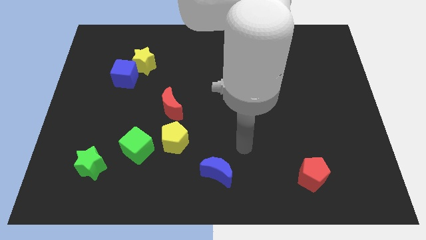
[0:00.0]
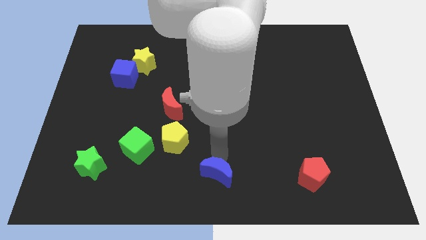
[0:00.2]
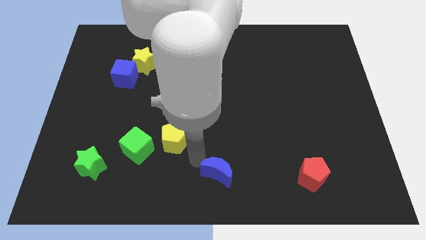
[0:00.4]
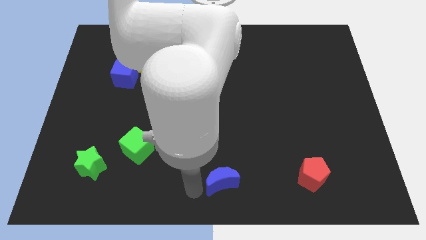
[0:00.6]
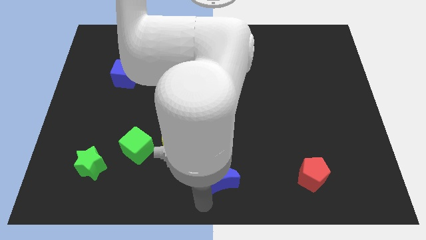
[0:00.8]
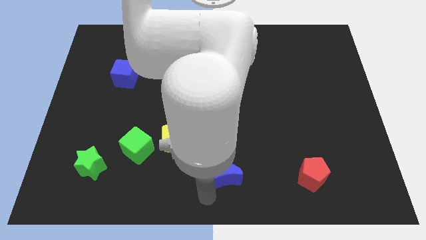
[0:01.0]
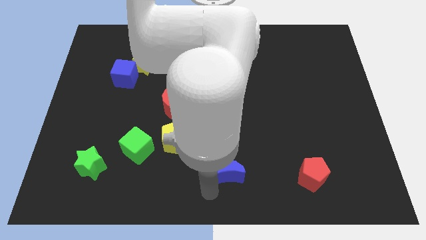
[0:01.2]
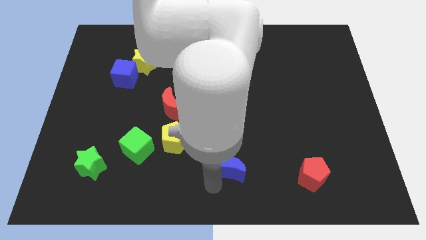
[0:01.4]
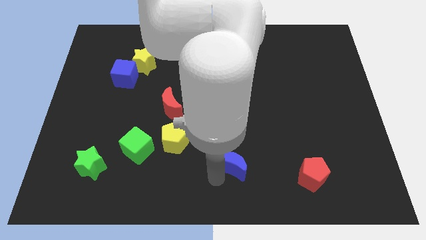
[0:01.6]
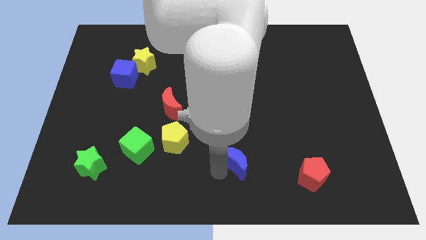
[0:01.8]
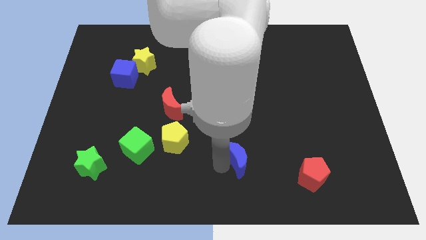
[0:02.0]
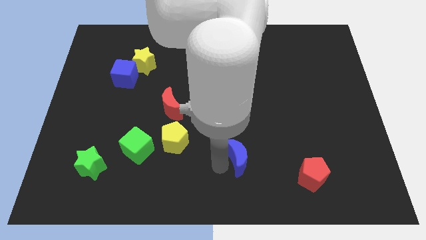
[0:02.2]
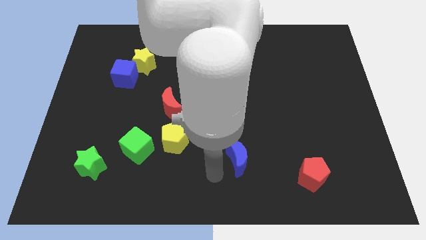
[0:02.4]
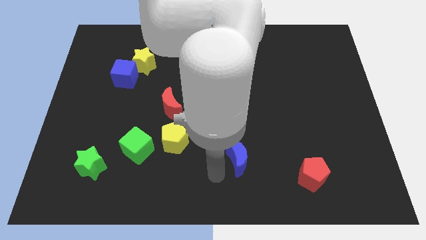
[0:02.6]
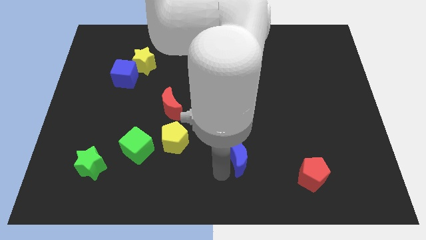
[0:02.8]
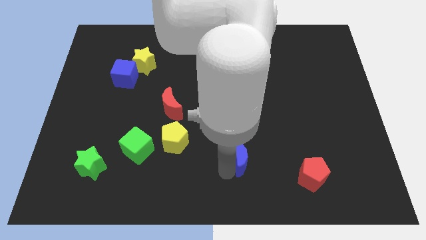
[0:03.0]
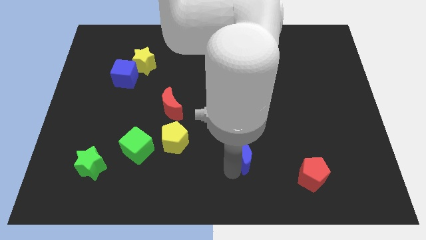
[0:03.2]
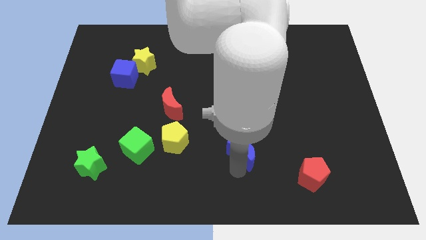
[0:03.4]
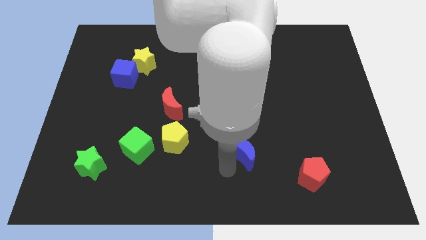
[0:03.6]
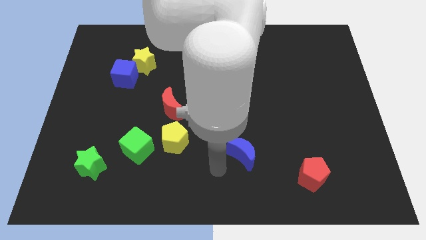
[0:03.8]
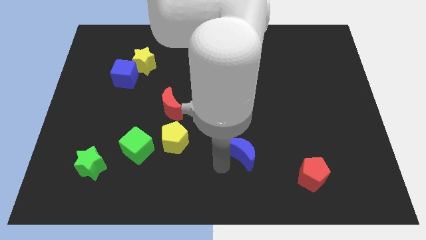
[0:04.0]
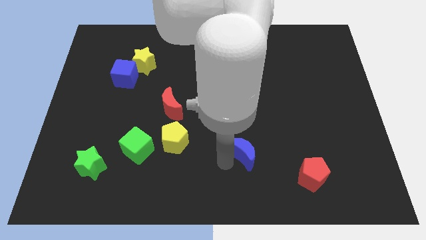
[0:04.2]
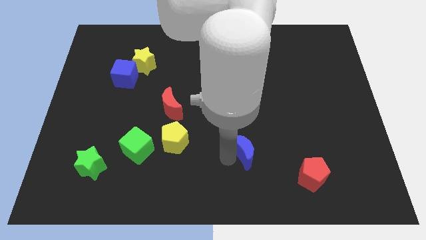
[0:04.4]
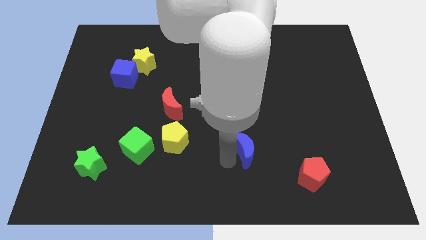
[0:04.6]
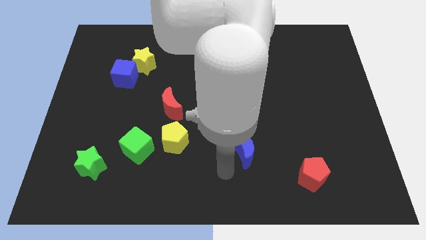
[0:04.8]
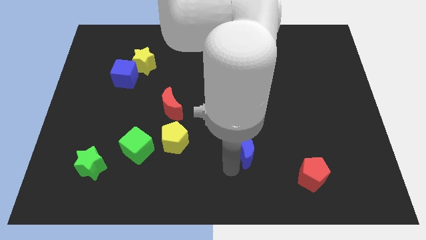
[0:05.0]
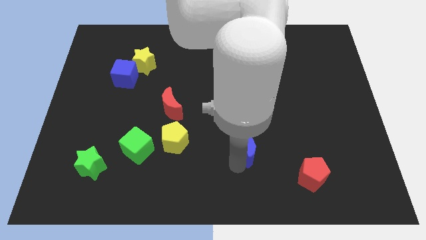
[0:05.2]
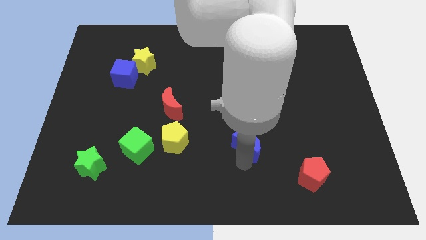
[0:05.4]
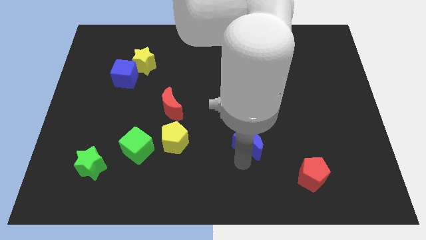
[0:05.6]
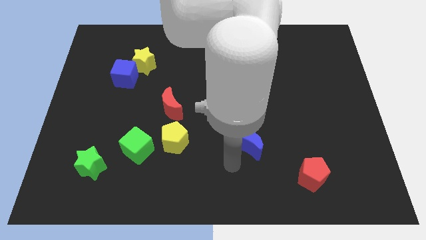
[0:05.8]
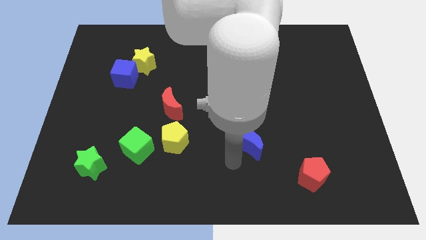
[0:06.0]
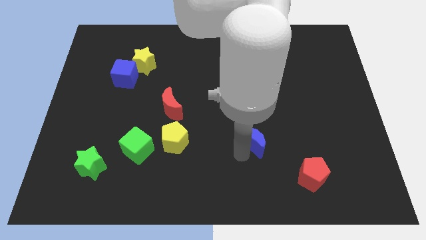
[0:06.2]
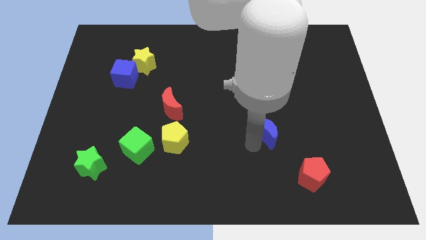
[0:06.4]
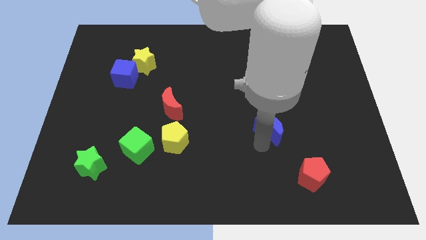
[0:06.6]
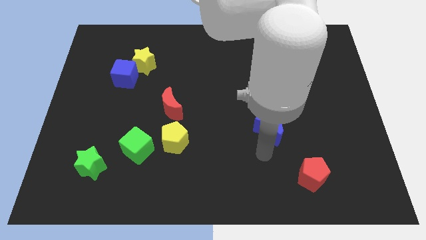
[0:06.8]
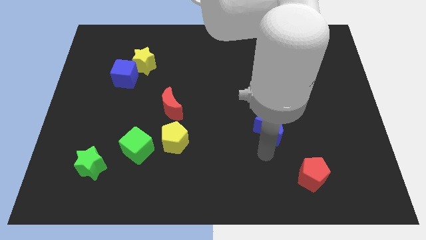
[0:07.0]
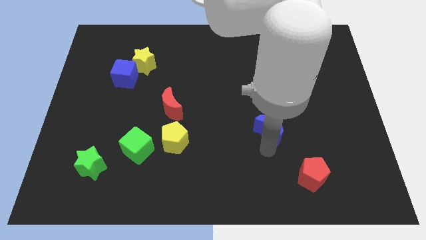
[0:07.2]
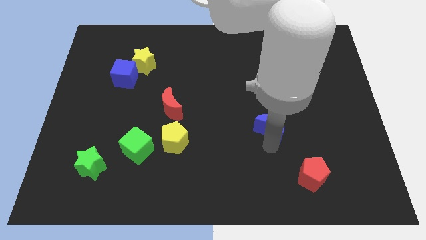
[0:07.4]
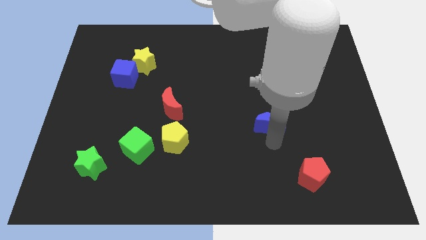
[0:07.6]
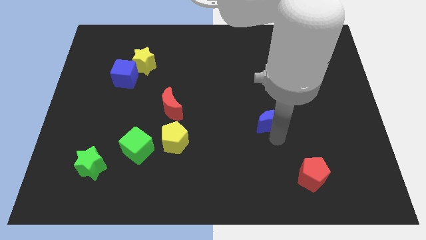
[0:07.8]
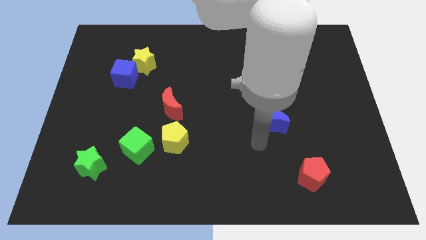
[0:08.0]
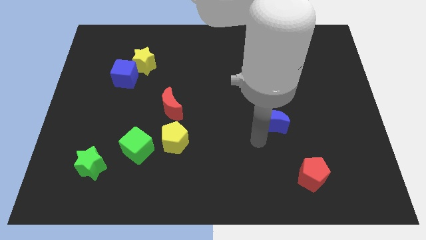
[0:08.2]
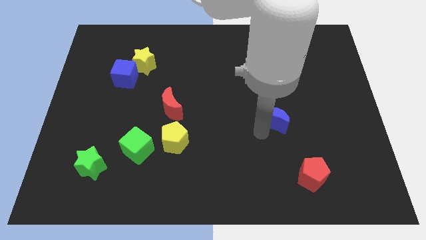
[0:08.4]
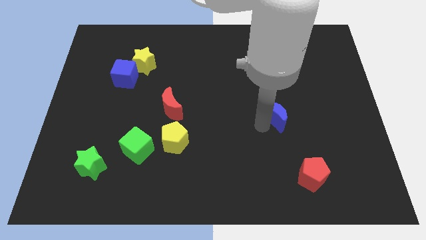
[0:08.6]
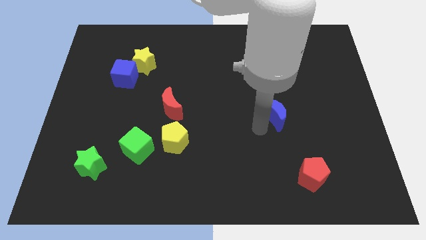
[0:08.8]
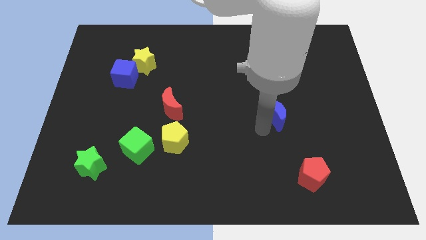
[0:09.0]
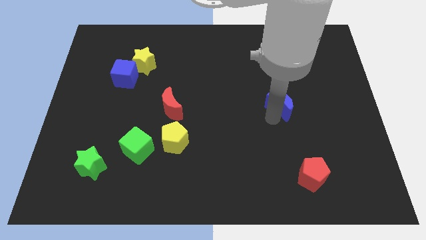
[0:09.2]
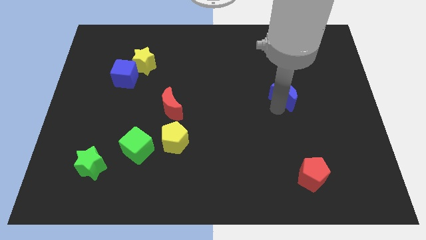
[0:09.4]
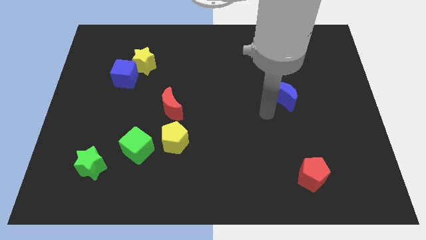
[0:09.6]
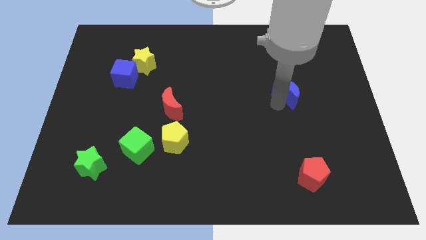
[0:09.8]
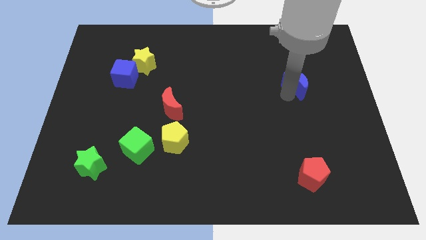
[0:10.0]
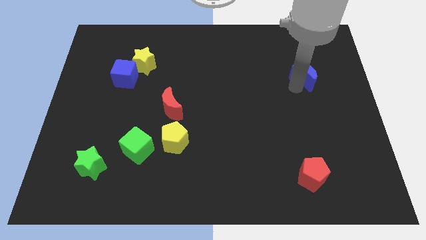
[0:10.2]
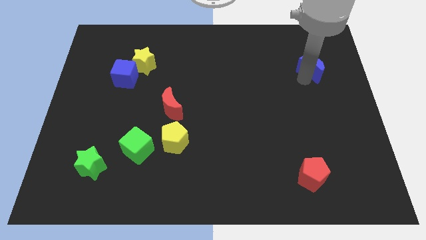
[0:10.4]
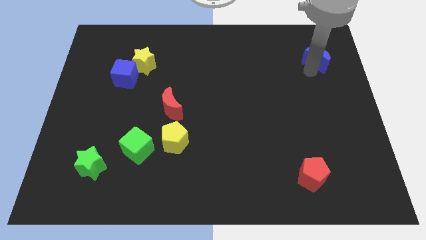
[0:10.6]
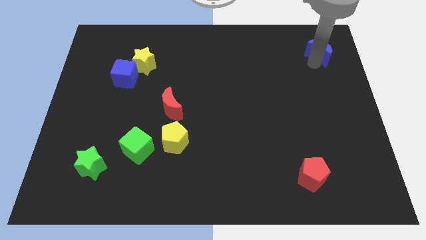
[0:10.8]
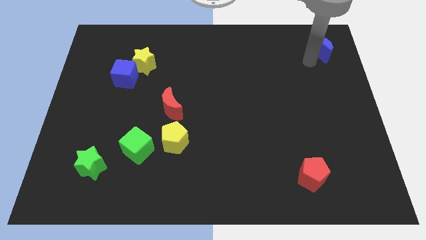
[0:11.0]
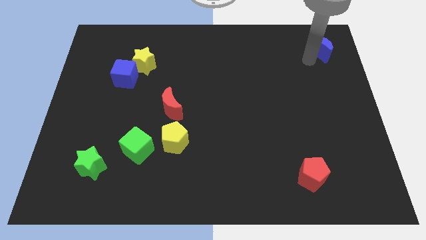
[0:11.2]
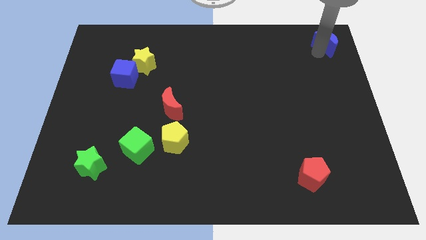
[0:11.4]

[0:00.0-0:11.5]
put the blue moon to the top right of the board
